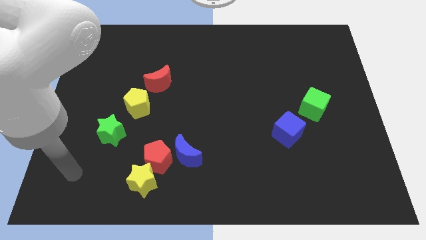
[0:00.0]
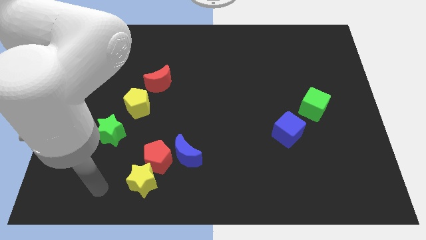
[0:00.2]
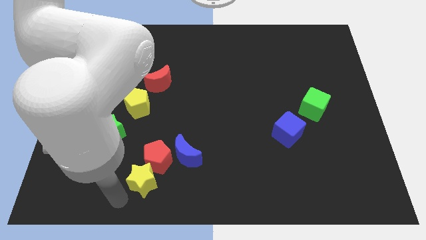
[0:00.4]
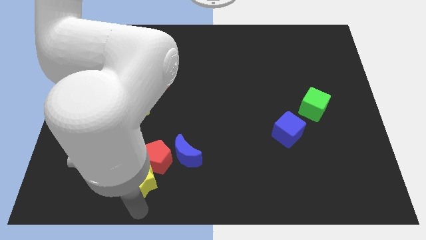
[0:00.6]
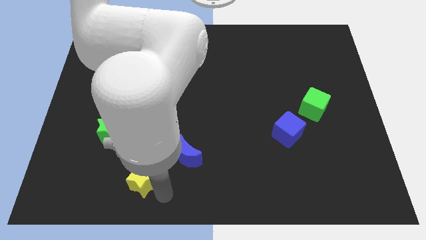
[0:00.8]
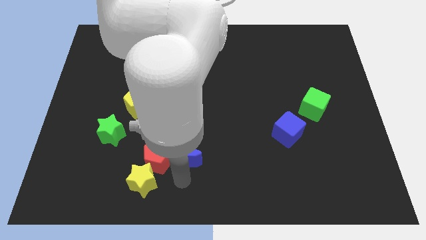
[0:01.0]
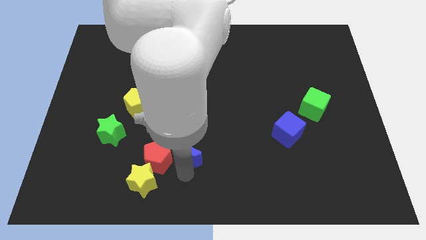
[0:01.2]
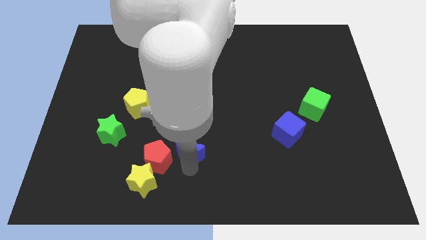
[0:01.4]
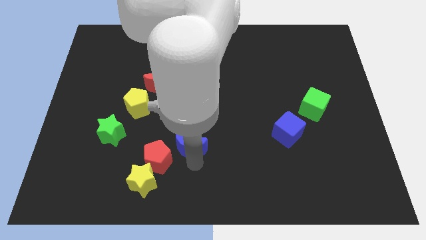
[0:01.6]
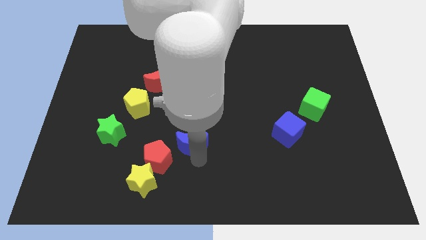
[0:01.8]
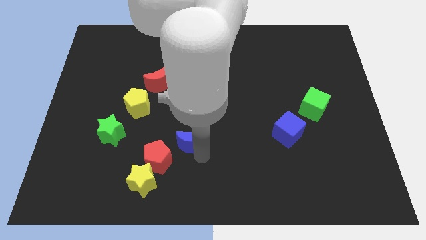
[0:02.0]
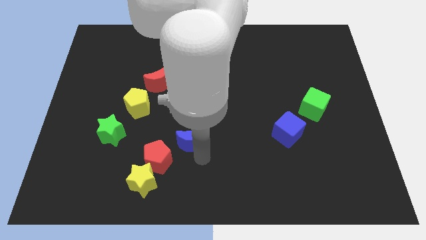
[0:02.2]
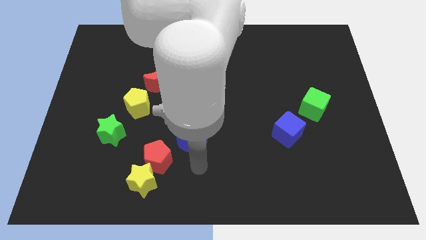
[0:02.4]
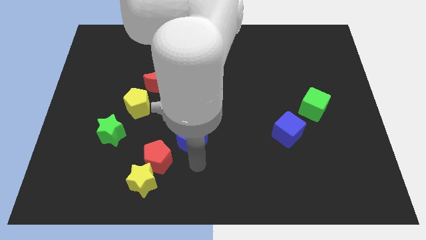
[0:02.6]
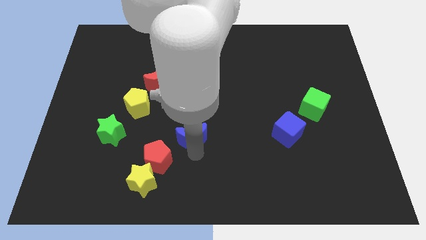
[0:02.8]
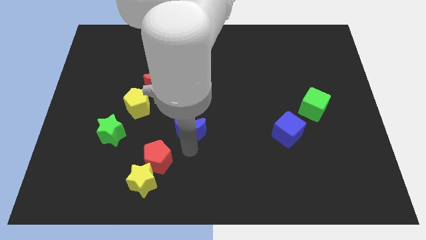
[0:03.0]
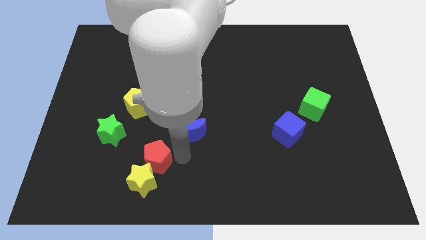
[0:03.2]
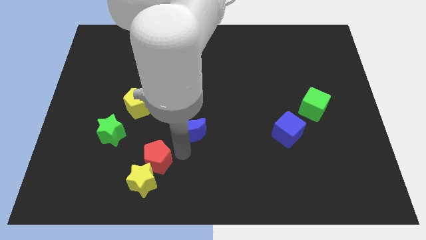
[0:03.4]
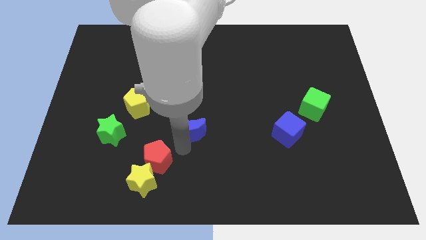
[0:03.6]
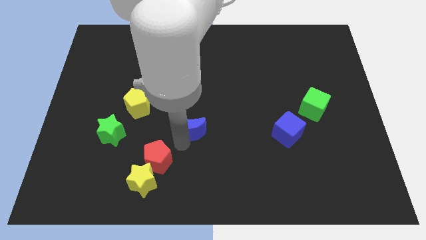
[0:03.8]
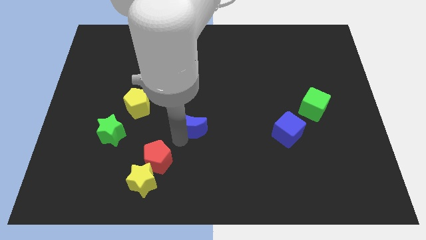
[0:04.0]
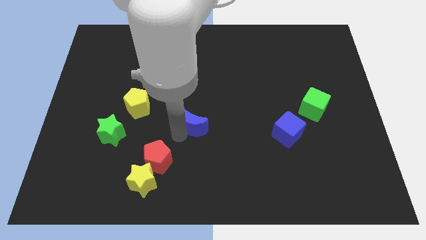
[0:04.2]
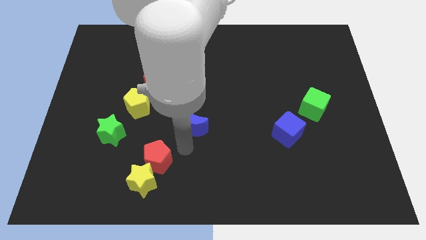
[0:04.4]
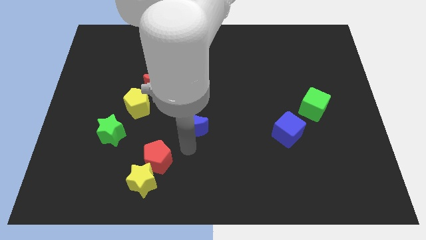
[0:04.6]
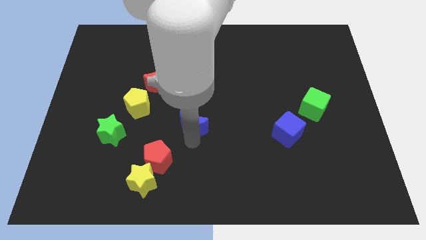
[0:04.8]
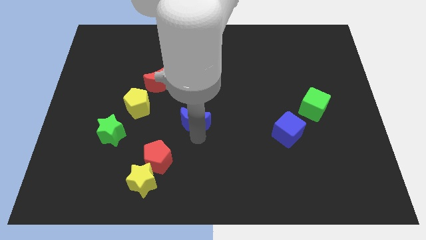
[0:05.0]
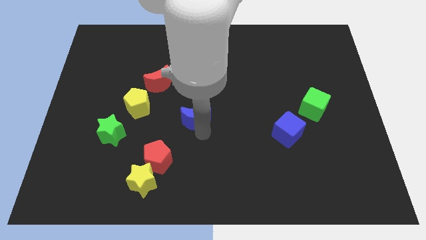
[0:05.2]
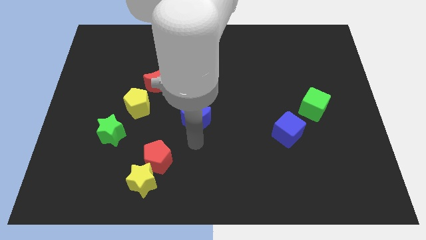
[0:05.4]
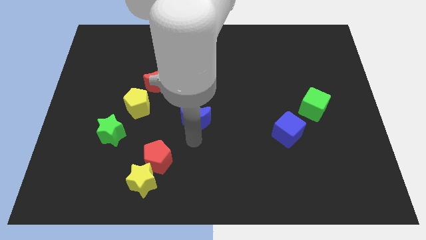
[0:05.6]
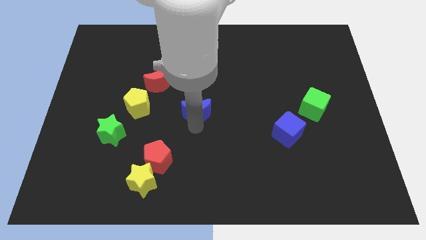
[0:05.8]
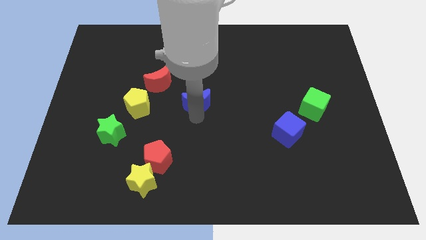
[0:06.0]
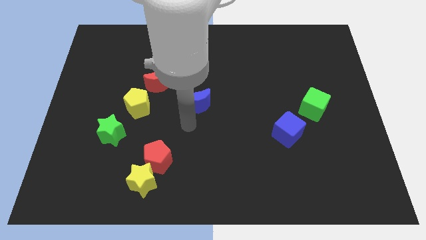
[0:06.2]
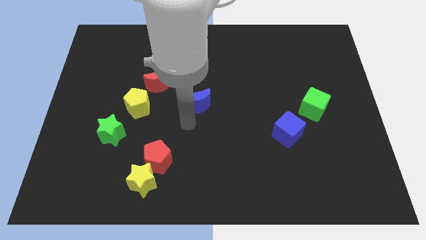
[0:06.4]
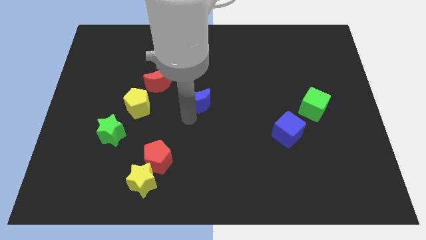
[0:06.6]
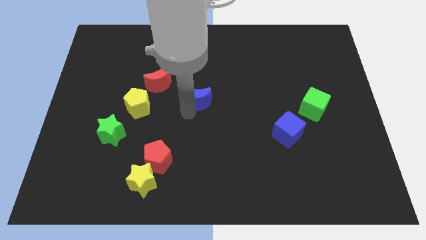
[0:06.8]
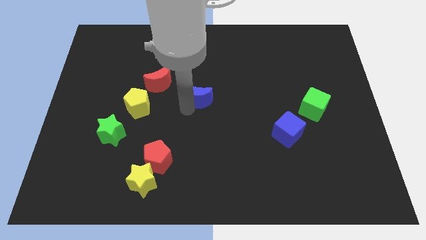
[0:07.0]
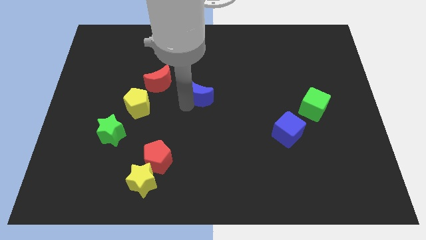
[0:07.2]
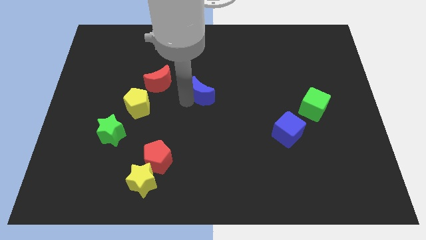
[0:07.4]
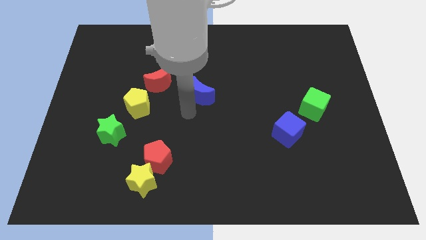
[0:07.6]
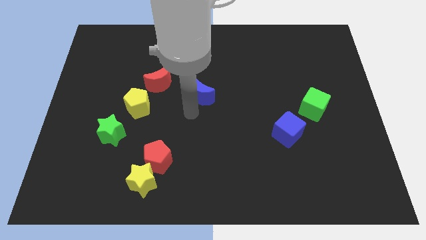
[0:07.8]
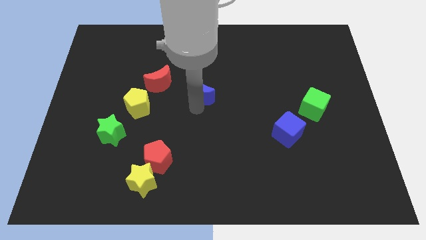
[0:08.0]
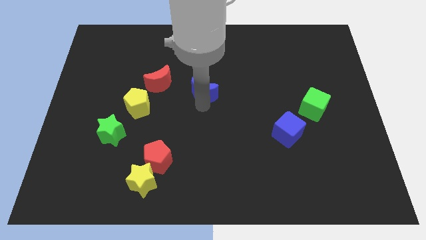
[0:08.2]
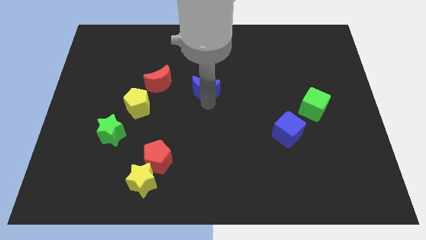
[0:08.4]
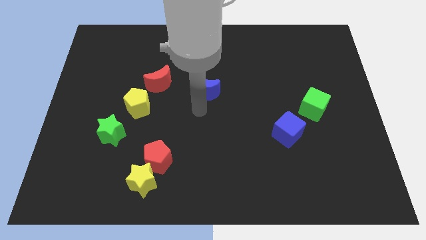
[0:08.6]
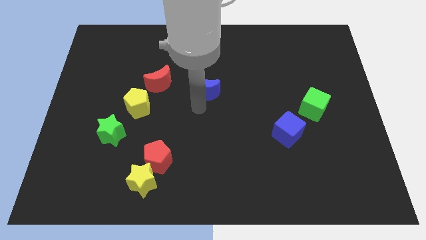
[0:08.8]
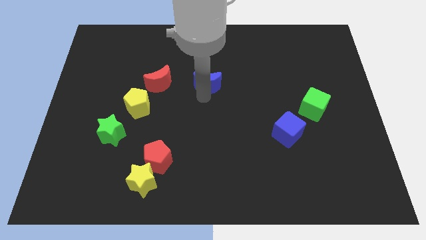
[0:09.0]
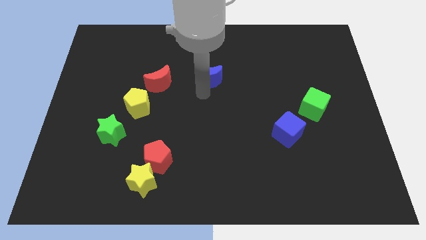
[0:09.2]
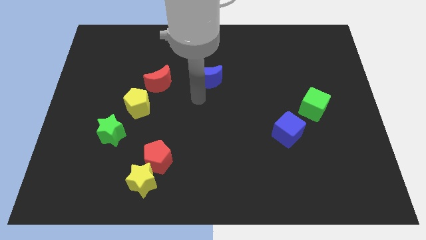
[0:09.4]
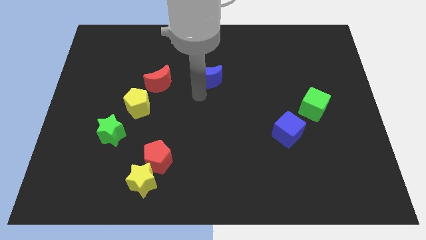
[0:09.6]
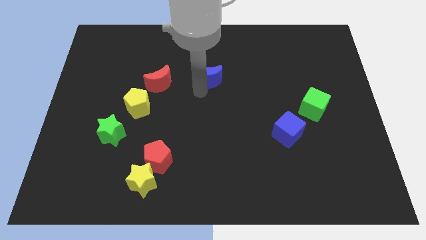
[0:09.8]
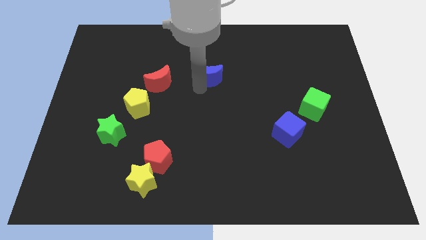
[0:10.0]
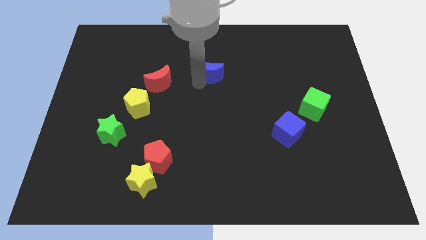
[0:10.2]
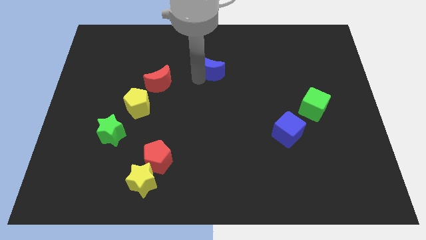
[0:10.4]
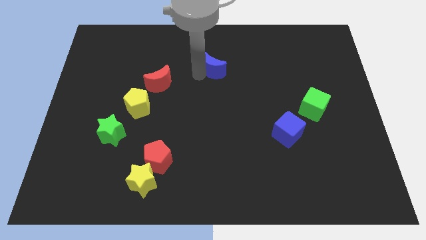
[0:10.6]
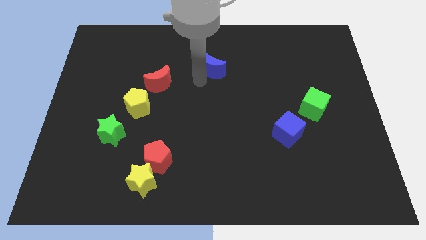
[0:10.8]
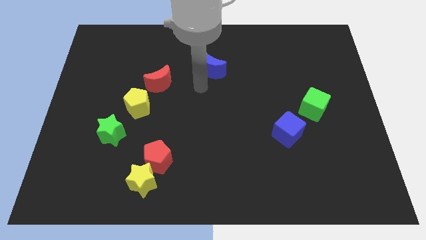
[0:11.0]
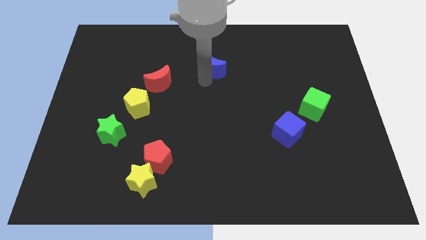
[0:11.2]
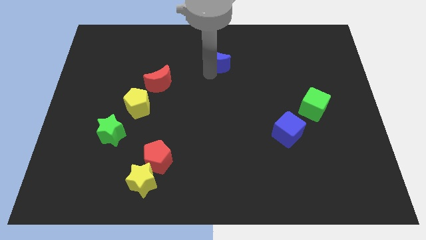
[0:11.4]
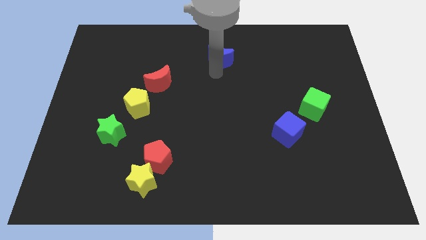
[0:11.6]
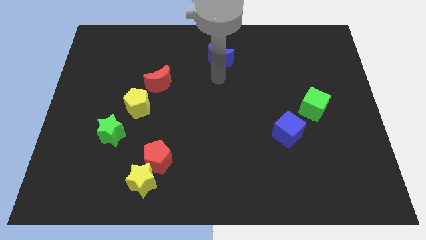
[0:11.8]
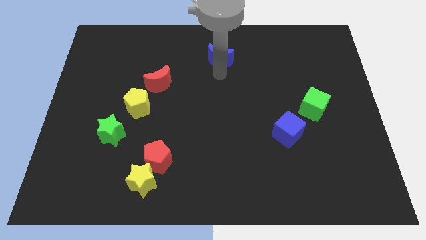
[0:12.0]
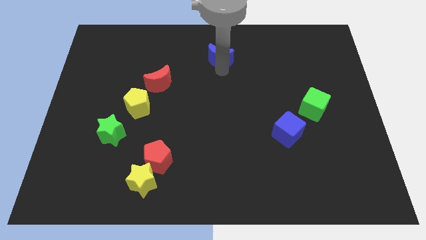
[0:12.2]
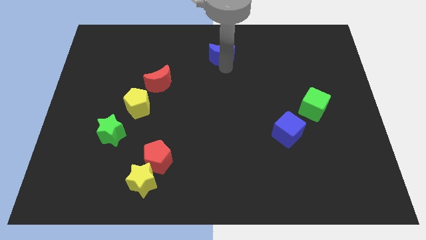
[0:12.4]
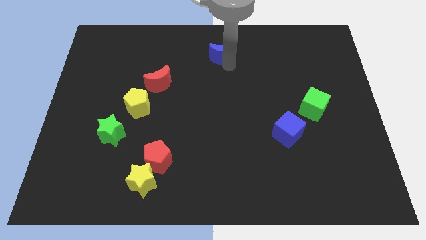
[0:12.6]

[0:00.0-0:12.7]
push the blue moon to the top side
